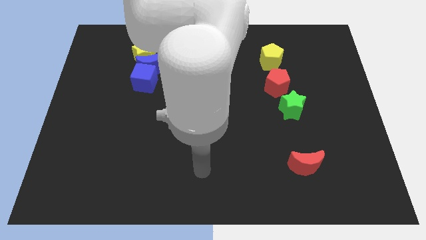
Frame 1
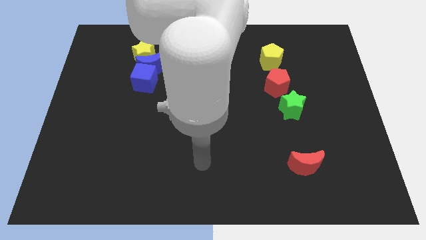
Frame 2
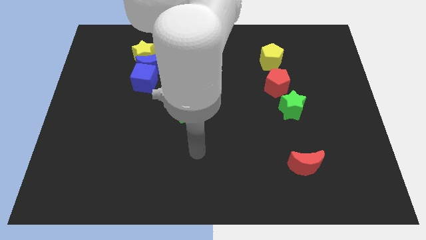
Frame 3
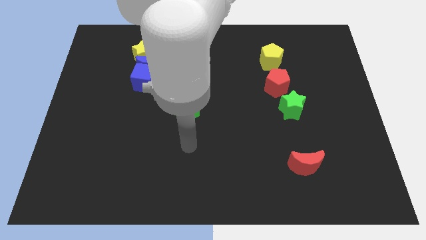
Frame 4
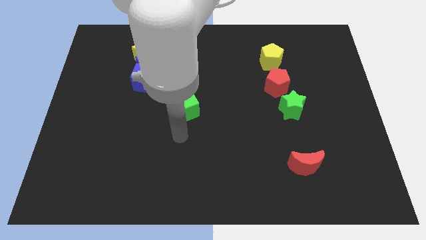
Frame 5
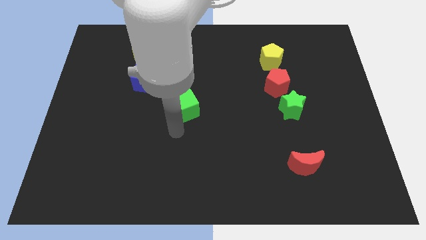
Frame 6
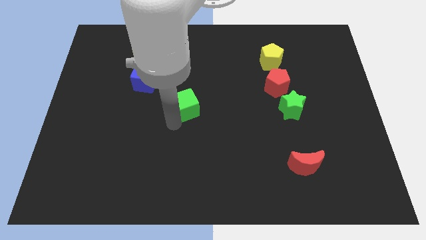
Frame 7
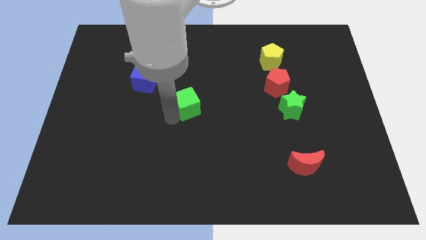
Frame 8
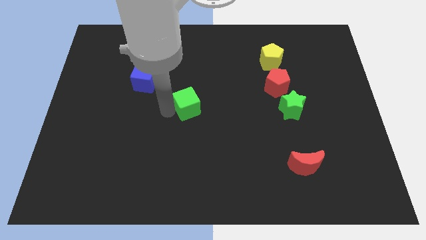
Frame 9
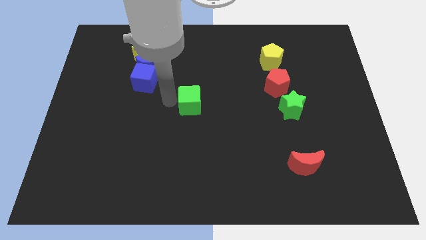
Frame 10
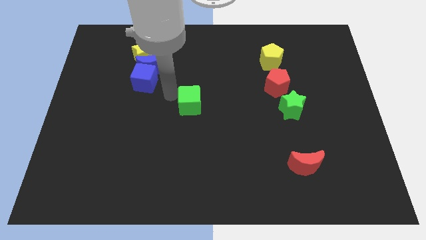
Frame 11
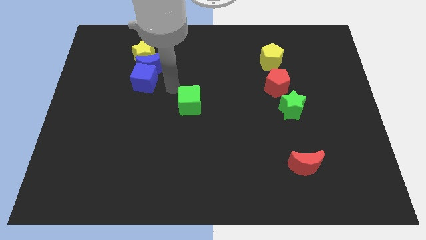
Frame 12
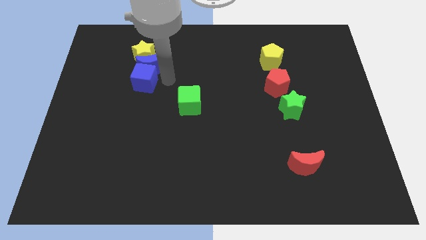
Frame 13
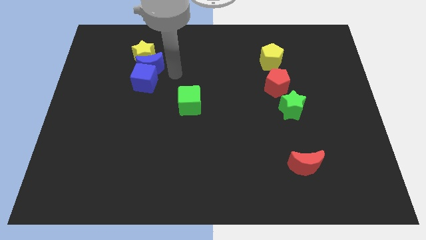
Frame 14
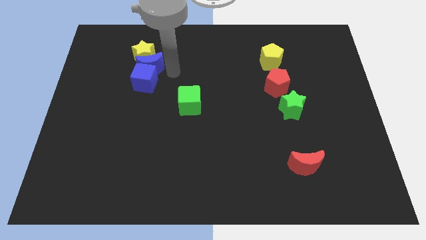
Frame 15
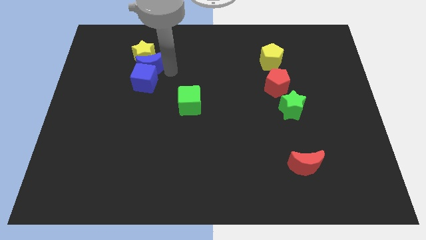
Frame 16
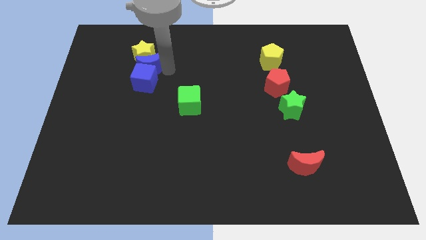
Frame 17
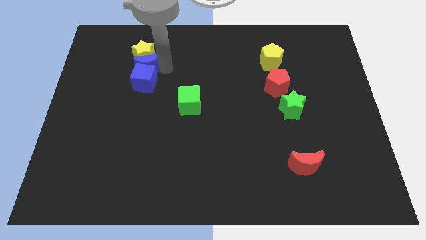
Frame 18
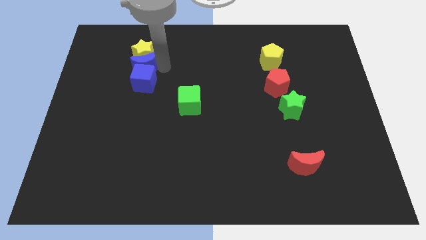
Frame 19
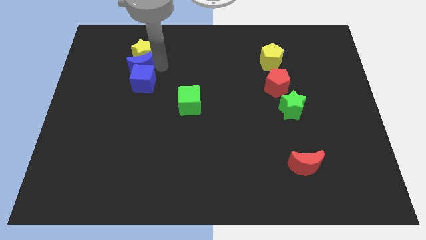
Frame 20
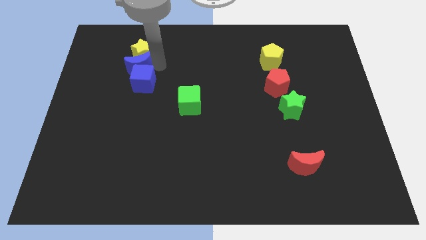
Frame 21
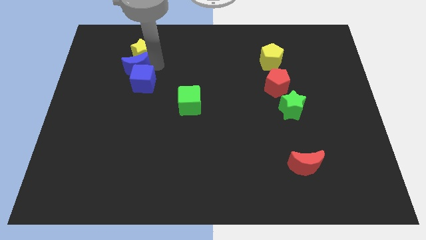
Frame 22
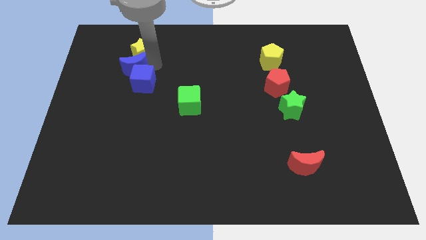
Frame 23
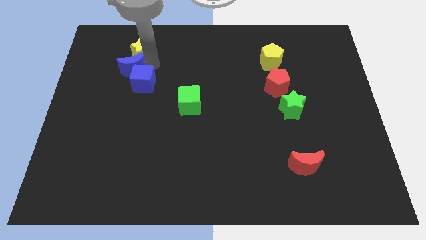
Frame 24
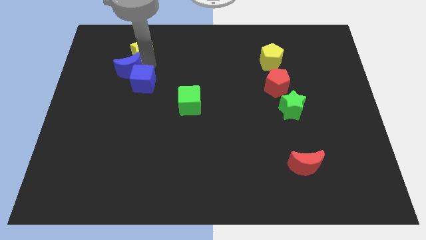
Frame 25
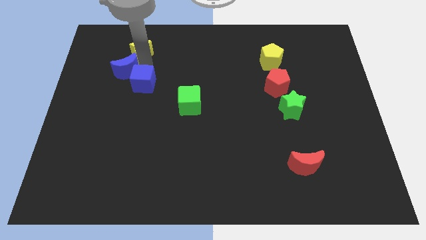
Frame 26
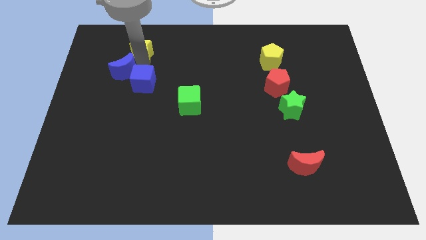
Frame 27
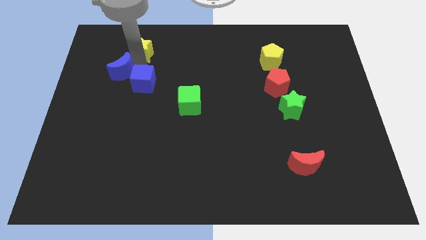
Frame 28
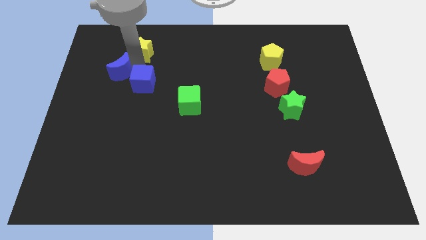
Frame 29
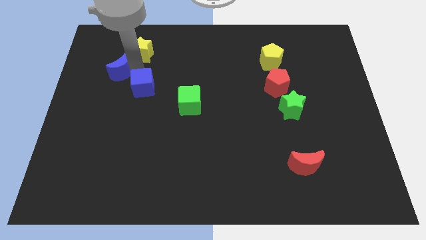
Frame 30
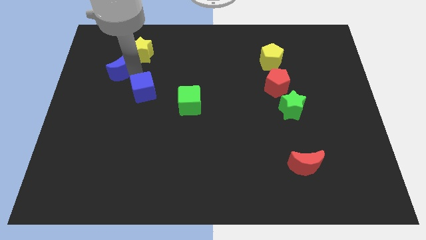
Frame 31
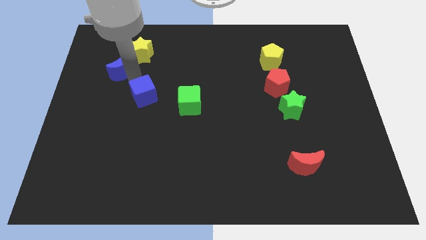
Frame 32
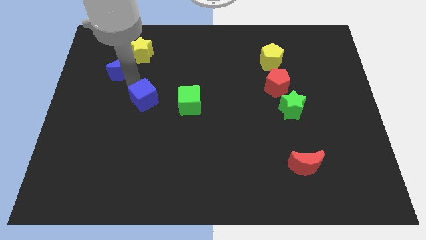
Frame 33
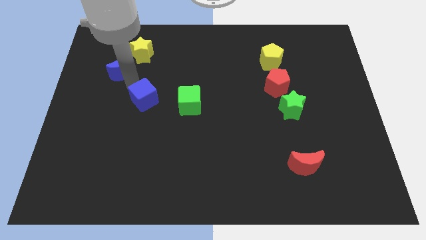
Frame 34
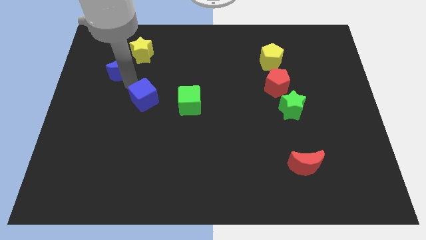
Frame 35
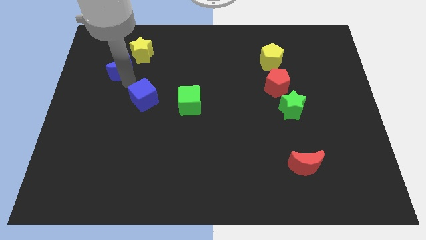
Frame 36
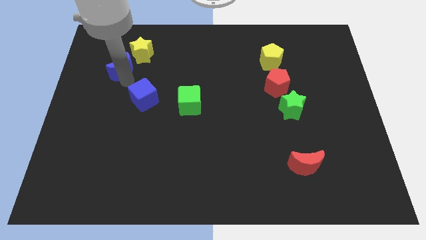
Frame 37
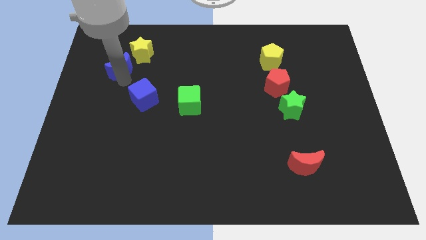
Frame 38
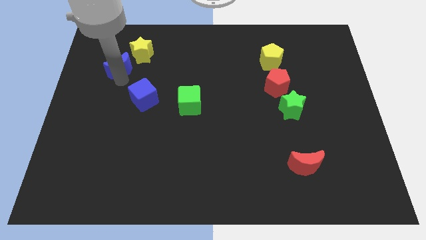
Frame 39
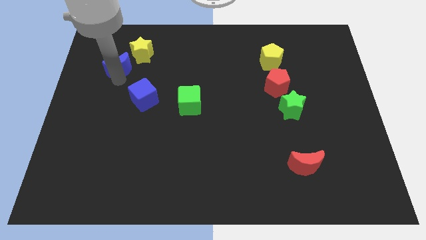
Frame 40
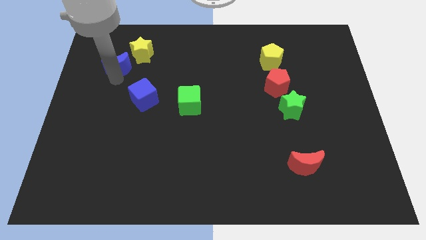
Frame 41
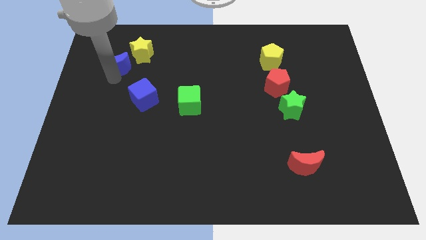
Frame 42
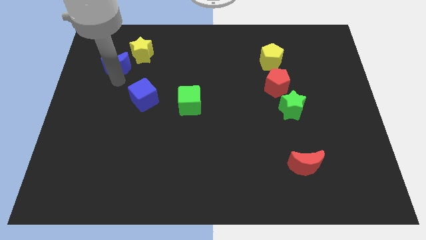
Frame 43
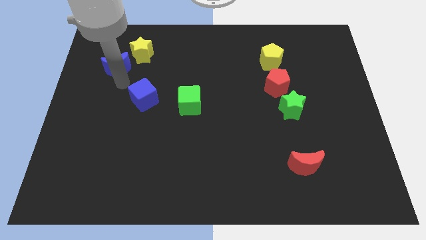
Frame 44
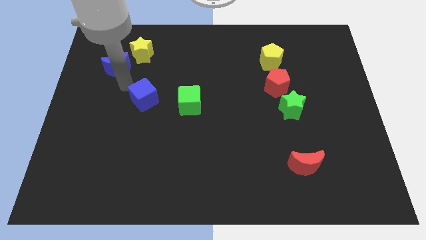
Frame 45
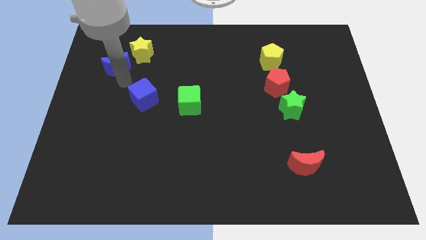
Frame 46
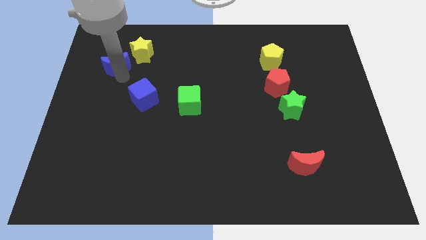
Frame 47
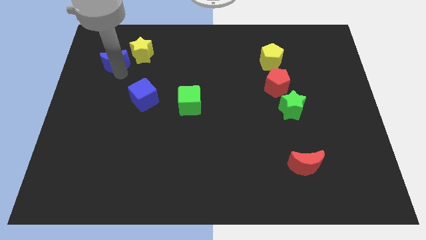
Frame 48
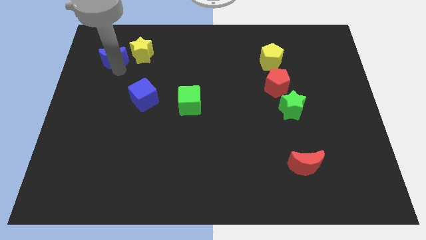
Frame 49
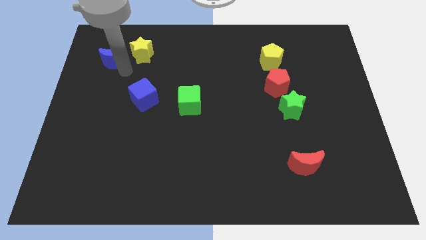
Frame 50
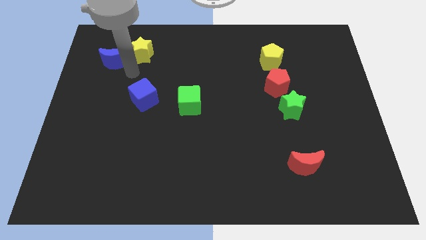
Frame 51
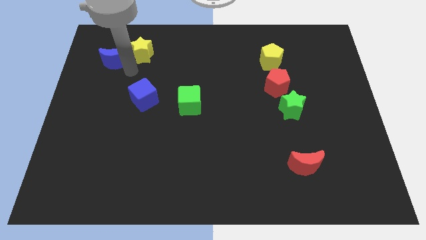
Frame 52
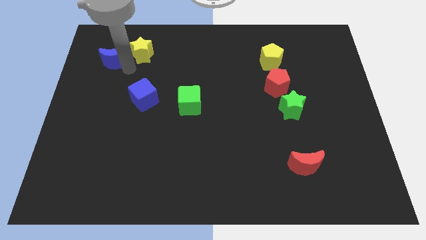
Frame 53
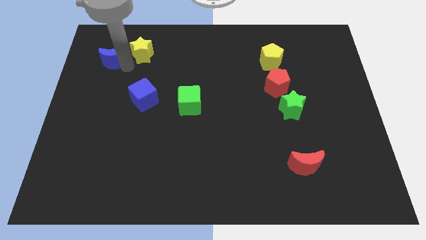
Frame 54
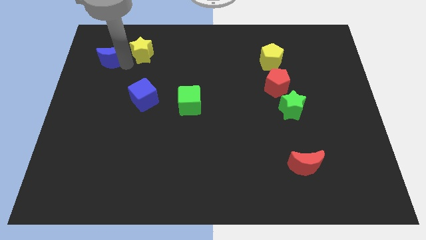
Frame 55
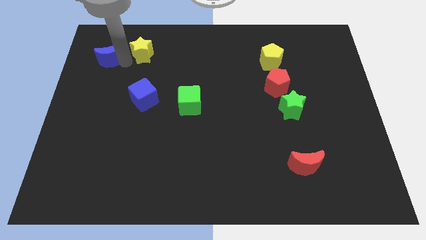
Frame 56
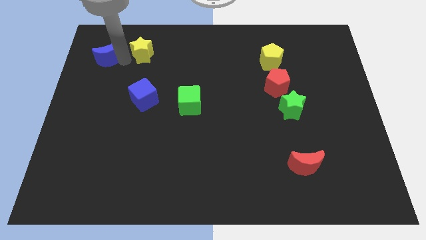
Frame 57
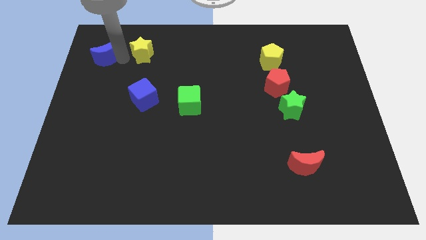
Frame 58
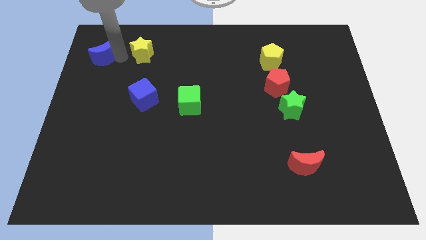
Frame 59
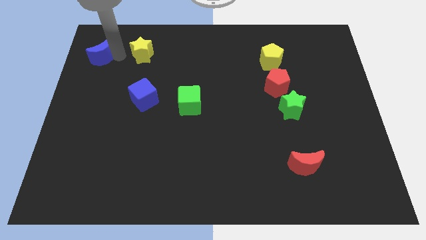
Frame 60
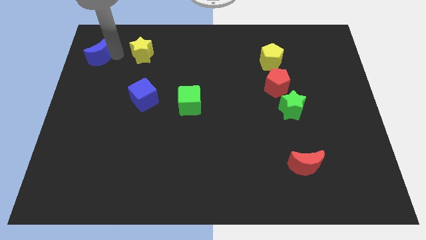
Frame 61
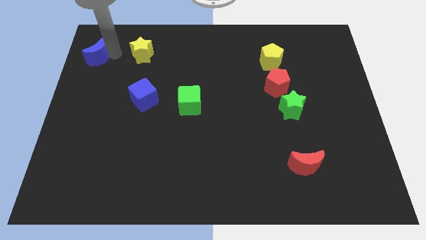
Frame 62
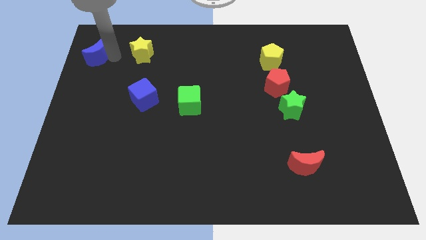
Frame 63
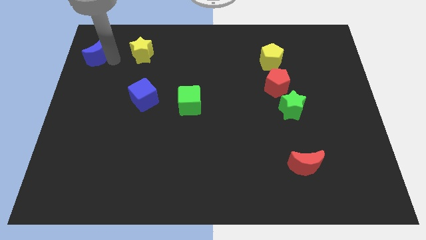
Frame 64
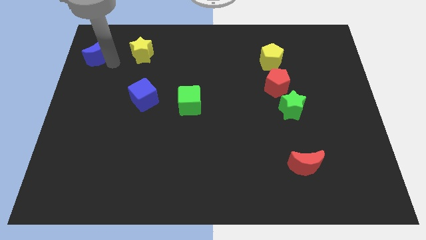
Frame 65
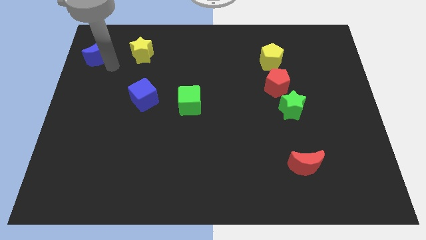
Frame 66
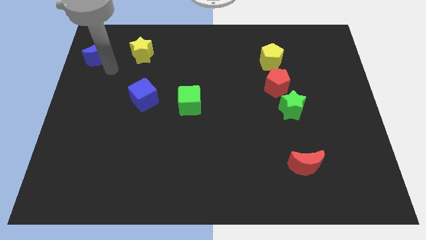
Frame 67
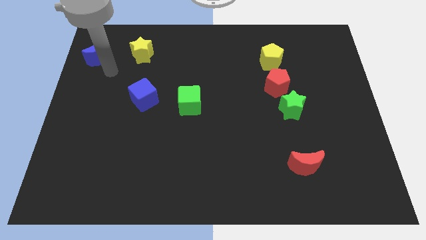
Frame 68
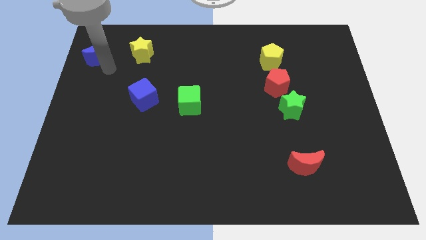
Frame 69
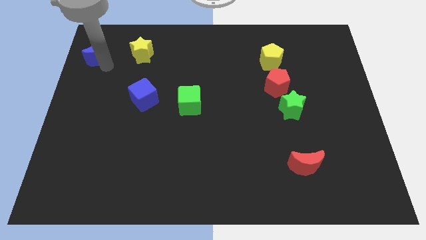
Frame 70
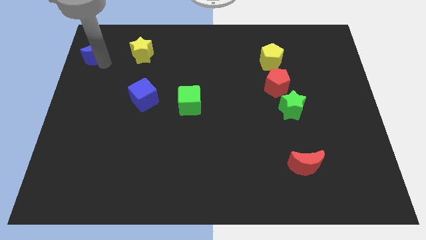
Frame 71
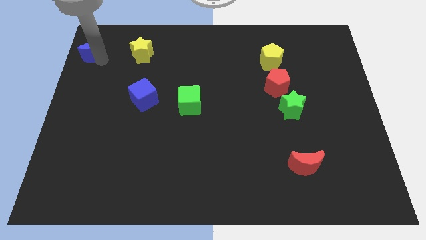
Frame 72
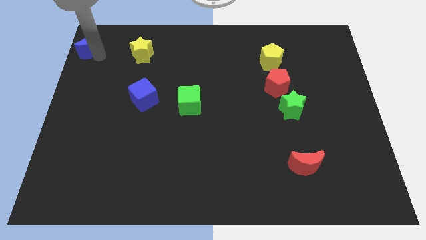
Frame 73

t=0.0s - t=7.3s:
slide the blue moon to the top left of the board
